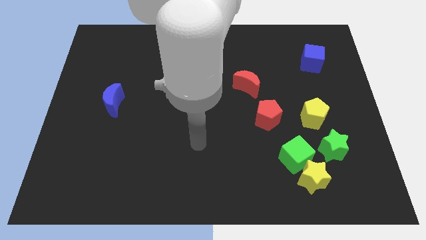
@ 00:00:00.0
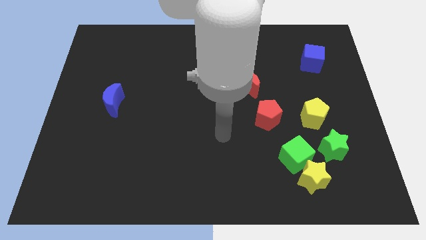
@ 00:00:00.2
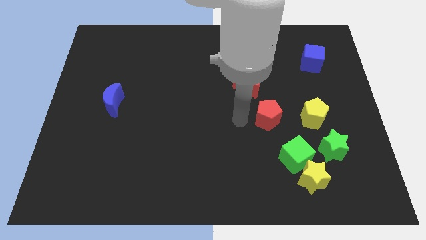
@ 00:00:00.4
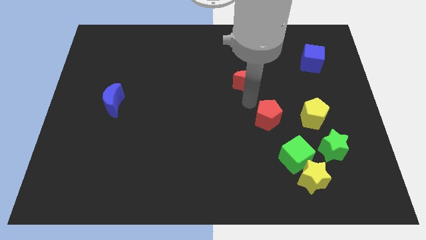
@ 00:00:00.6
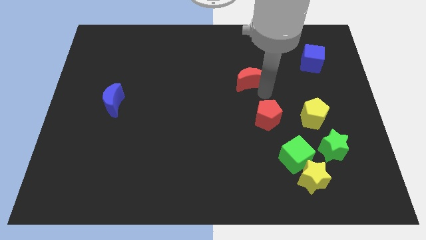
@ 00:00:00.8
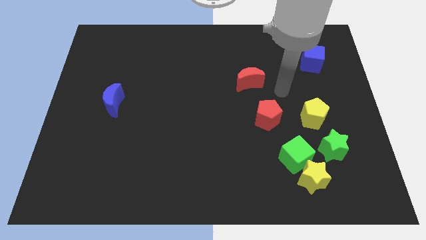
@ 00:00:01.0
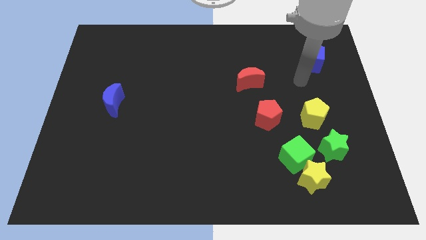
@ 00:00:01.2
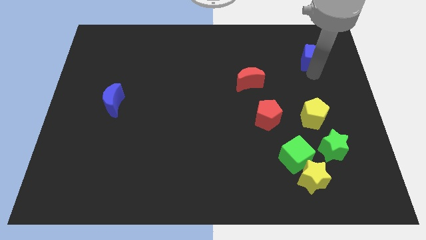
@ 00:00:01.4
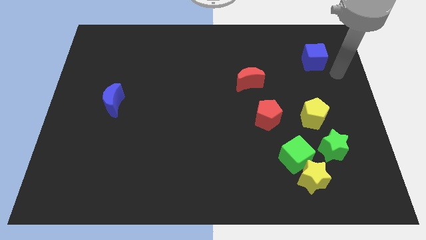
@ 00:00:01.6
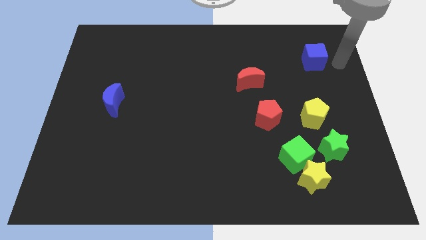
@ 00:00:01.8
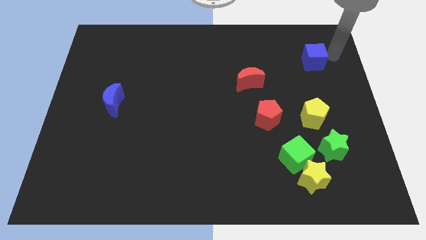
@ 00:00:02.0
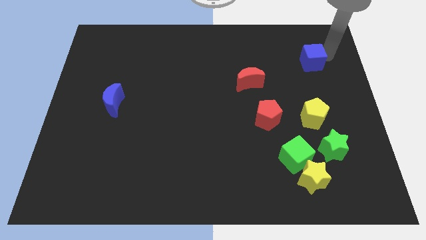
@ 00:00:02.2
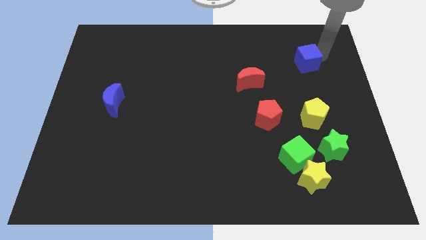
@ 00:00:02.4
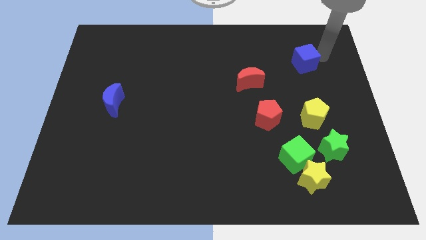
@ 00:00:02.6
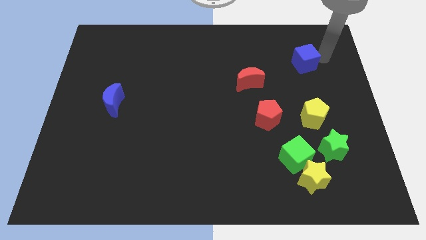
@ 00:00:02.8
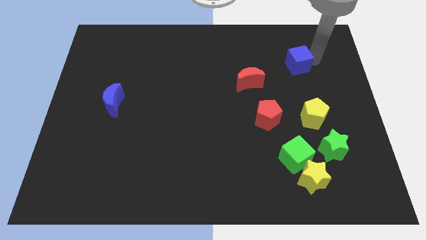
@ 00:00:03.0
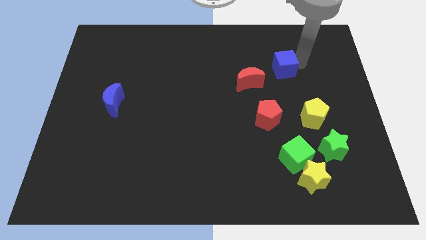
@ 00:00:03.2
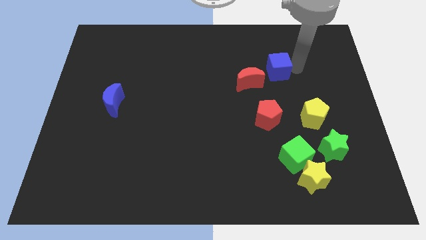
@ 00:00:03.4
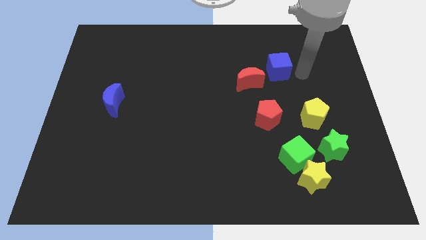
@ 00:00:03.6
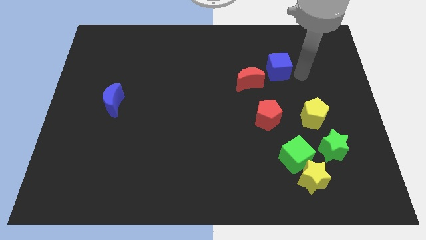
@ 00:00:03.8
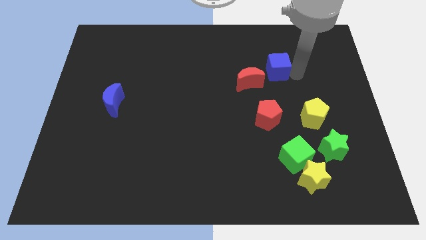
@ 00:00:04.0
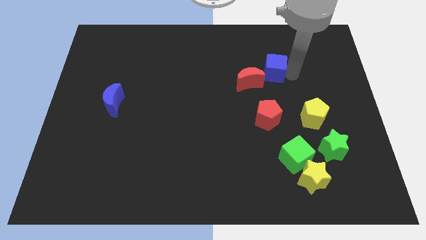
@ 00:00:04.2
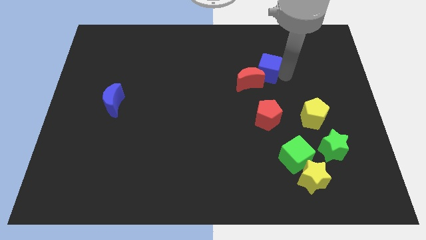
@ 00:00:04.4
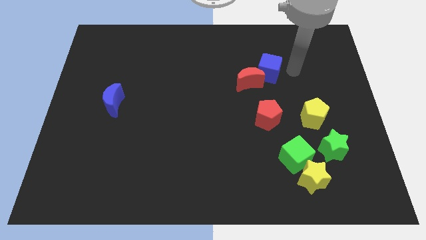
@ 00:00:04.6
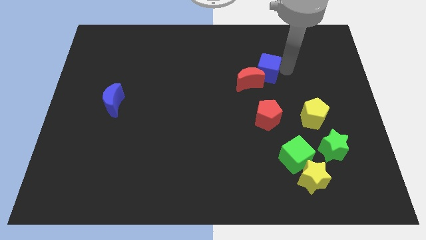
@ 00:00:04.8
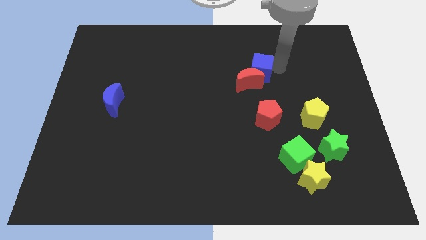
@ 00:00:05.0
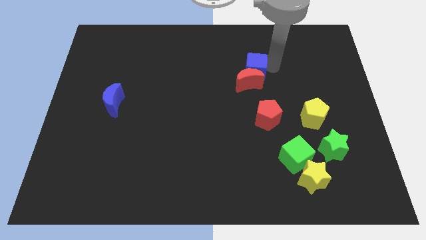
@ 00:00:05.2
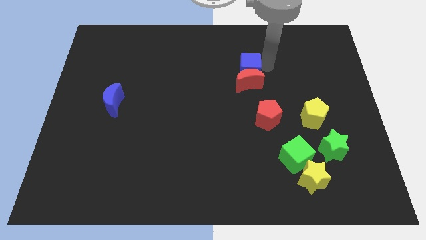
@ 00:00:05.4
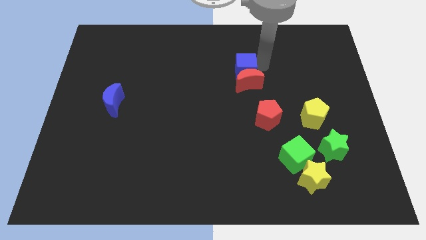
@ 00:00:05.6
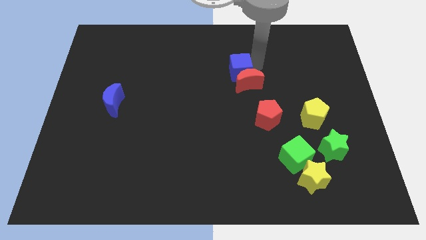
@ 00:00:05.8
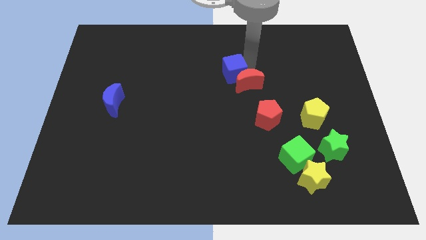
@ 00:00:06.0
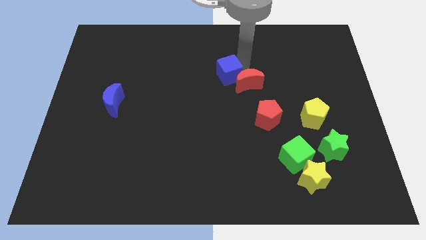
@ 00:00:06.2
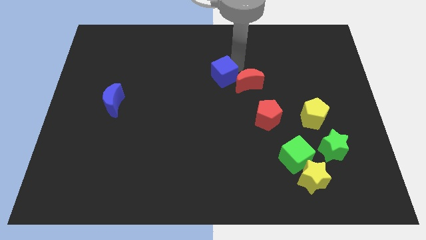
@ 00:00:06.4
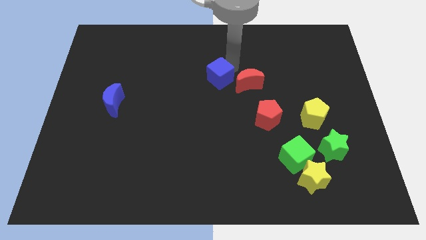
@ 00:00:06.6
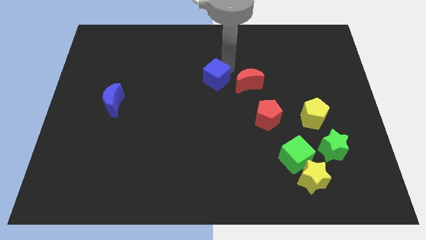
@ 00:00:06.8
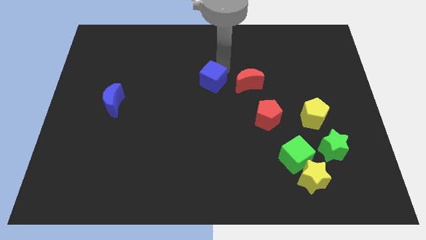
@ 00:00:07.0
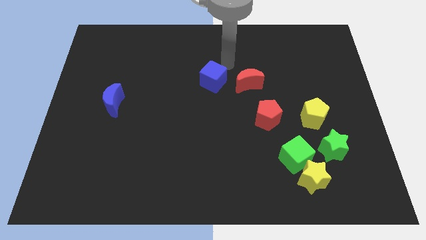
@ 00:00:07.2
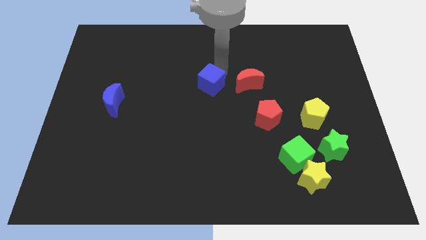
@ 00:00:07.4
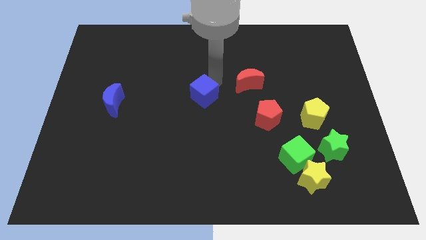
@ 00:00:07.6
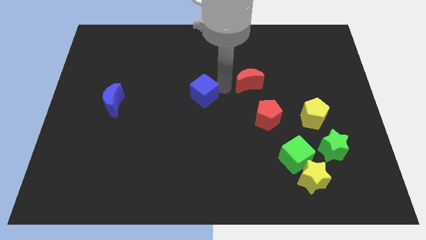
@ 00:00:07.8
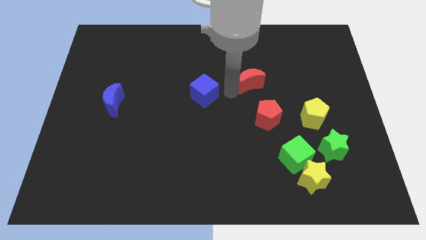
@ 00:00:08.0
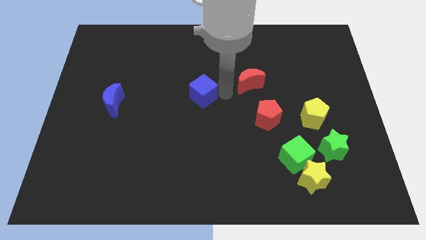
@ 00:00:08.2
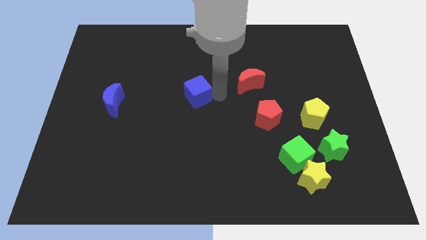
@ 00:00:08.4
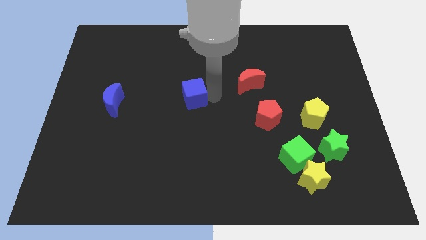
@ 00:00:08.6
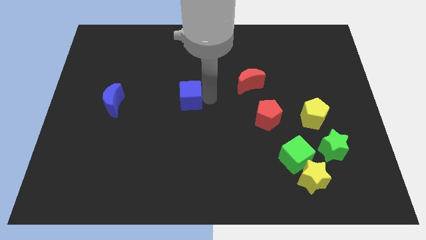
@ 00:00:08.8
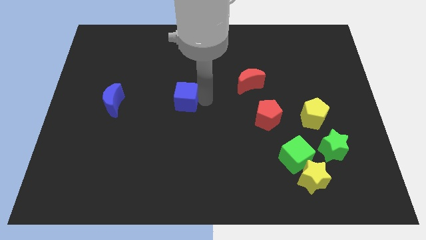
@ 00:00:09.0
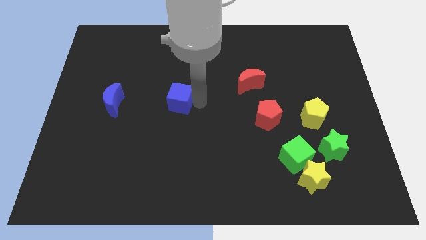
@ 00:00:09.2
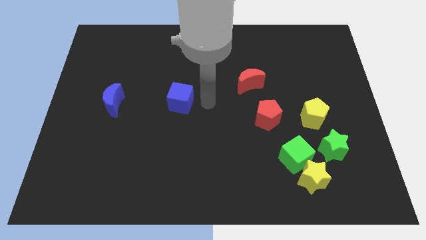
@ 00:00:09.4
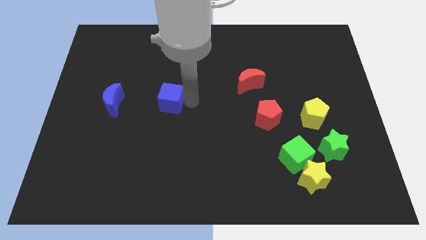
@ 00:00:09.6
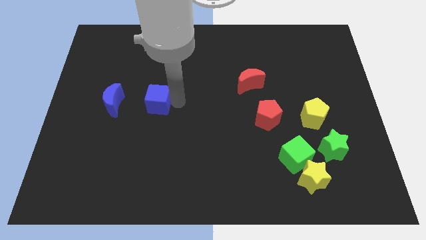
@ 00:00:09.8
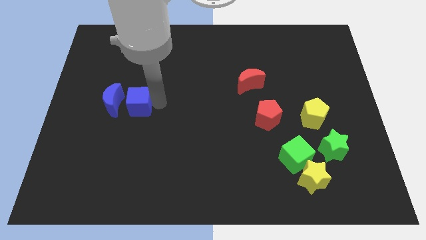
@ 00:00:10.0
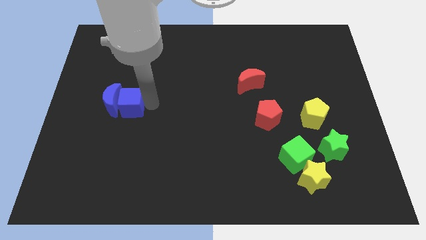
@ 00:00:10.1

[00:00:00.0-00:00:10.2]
move the blue cube next to the blue moon

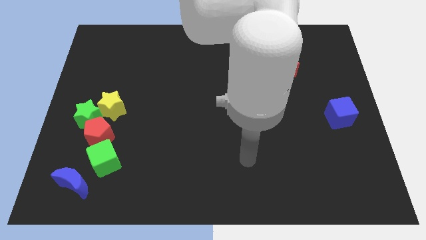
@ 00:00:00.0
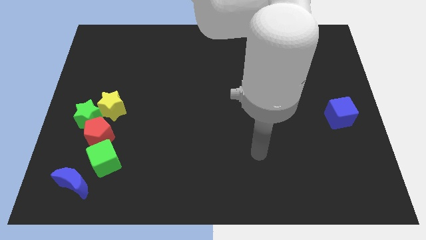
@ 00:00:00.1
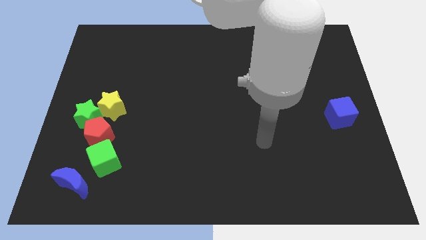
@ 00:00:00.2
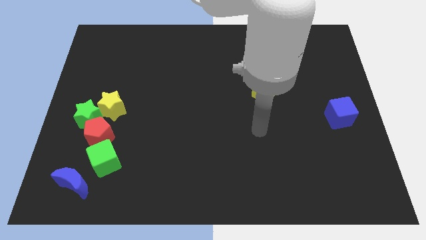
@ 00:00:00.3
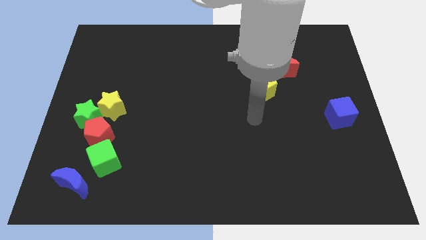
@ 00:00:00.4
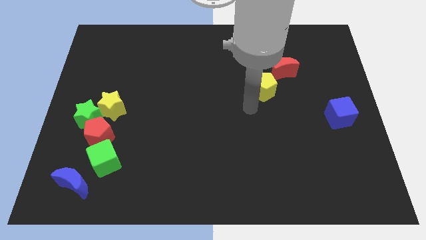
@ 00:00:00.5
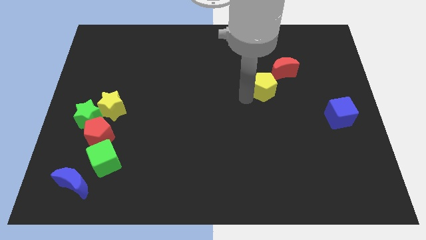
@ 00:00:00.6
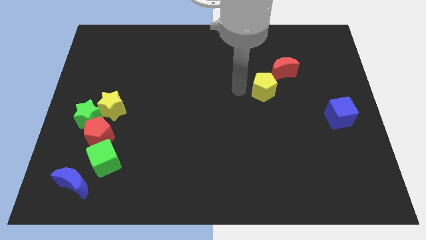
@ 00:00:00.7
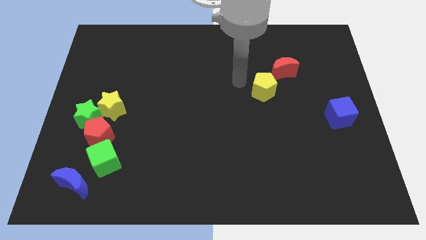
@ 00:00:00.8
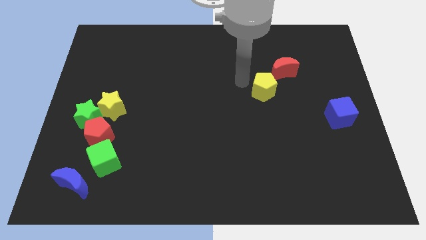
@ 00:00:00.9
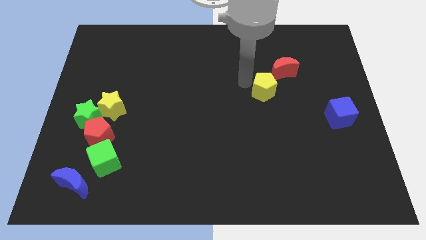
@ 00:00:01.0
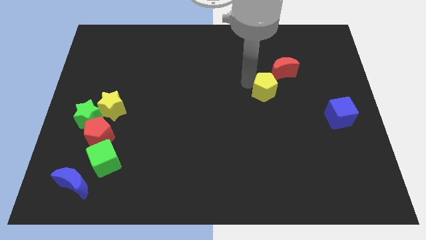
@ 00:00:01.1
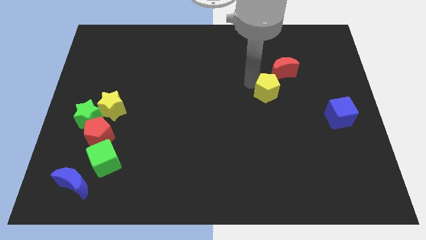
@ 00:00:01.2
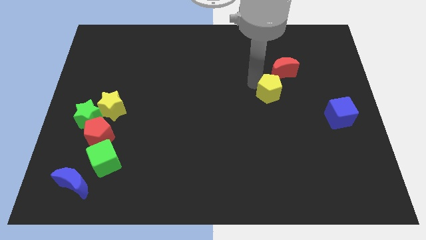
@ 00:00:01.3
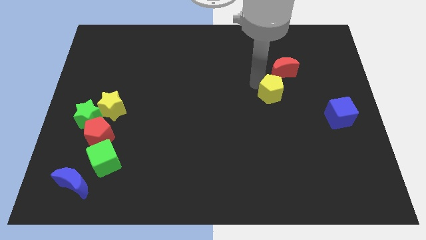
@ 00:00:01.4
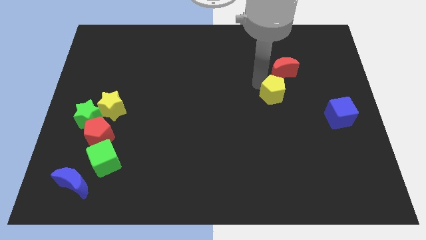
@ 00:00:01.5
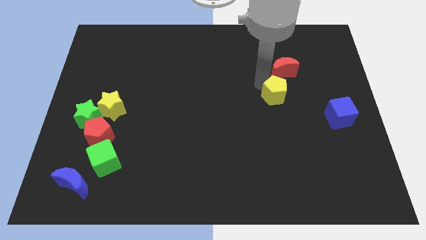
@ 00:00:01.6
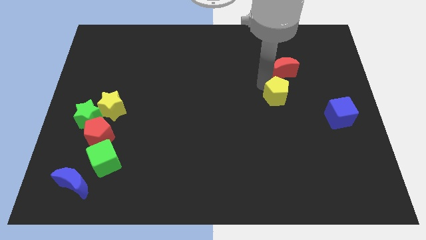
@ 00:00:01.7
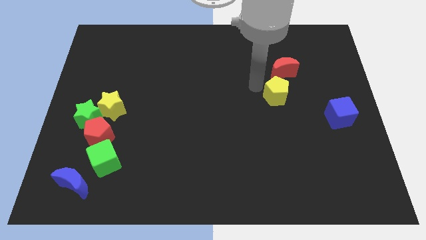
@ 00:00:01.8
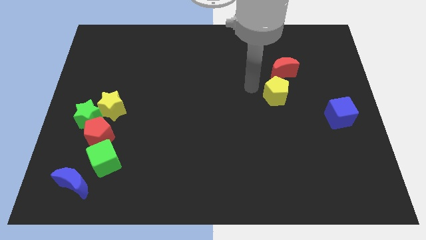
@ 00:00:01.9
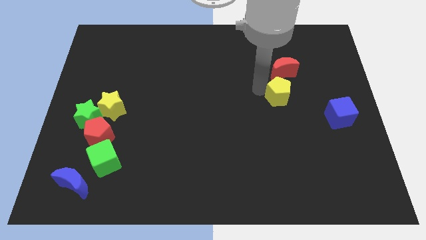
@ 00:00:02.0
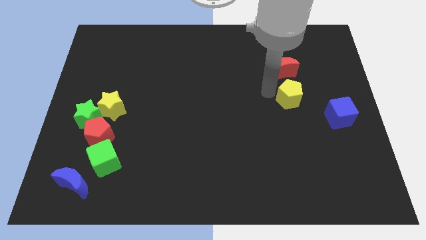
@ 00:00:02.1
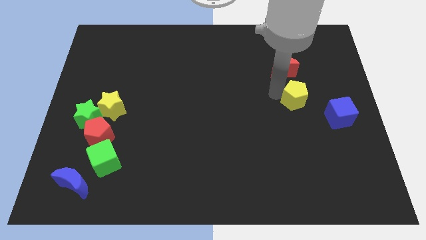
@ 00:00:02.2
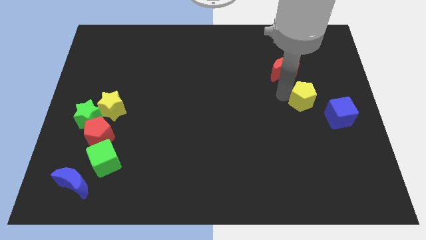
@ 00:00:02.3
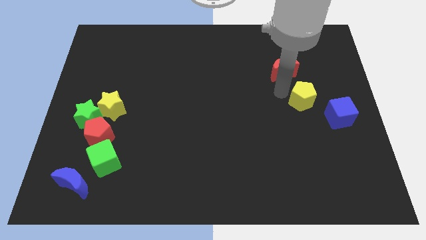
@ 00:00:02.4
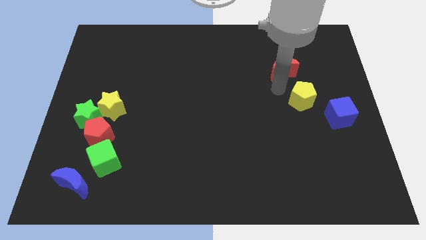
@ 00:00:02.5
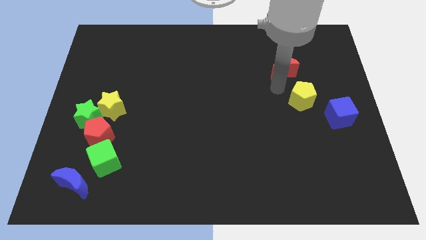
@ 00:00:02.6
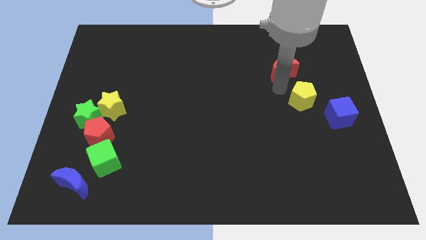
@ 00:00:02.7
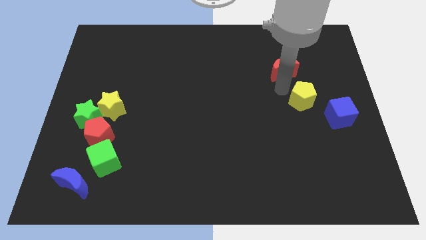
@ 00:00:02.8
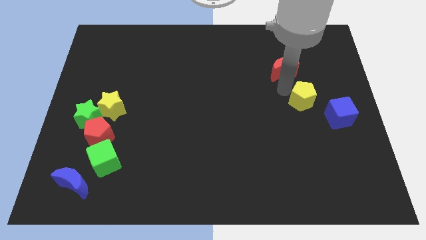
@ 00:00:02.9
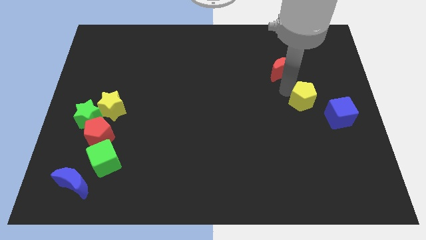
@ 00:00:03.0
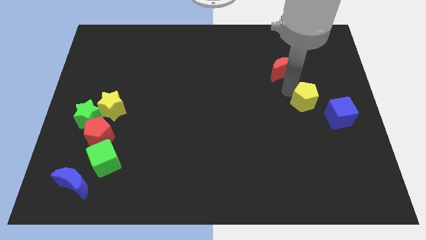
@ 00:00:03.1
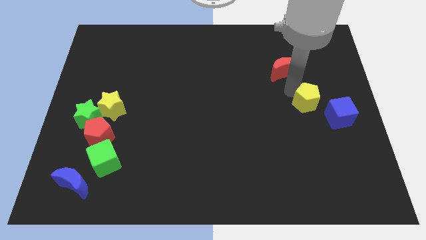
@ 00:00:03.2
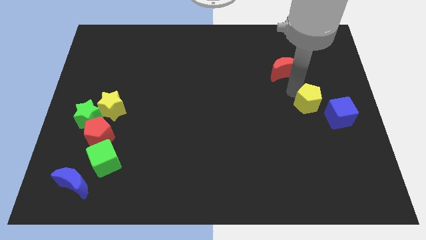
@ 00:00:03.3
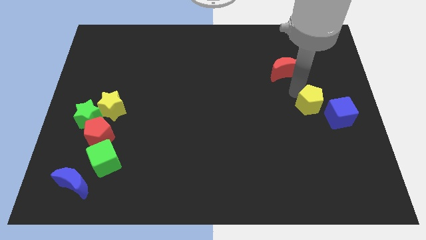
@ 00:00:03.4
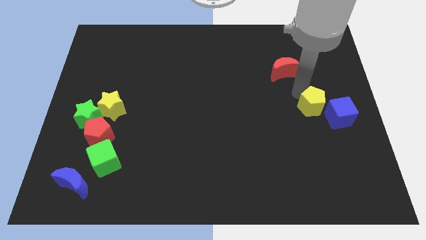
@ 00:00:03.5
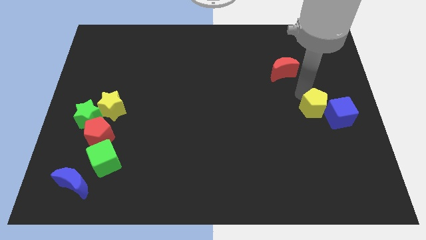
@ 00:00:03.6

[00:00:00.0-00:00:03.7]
push the yellow pentagon next to the blue cube
